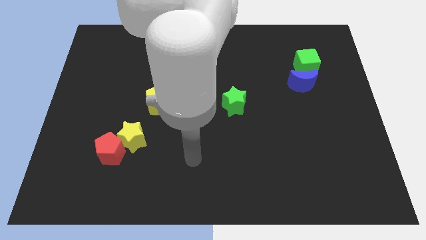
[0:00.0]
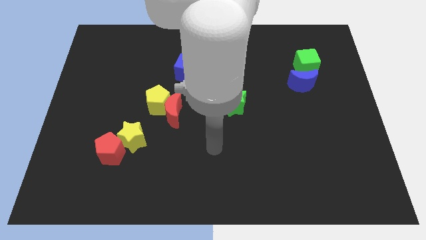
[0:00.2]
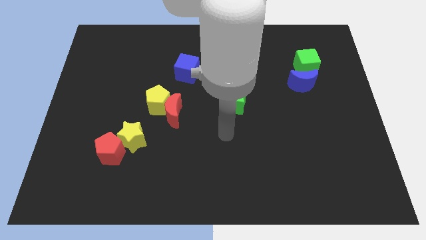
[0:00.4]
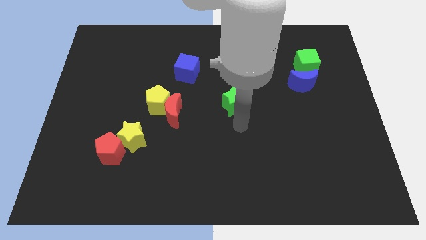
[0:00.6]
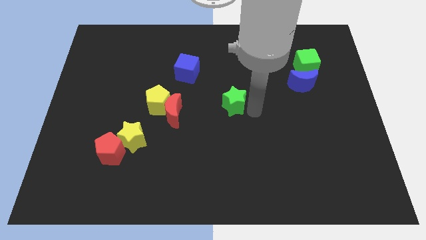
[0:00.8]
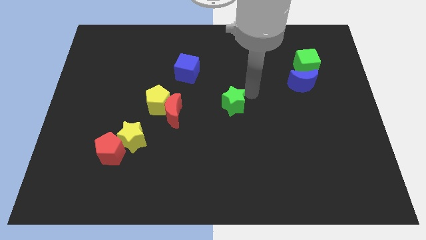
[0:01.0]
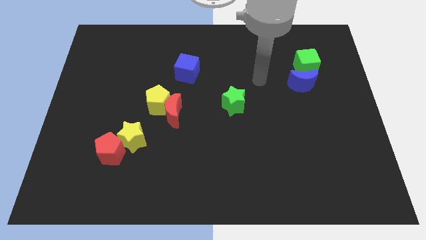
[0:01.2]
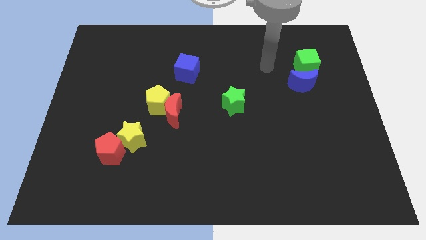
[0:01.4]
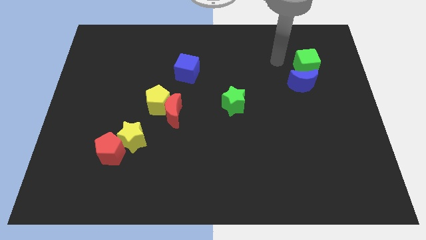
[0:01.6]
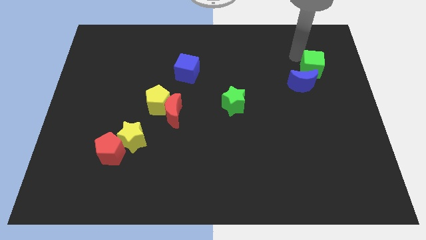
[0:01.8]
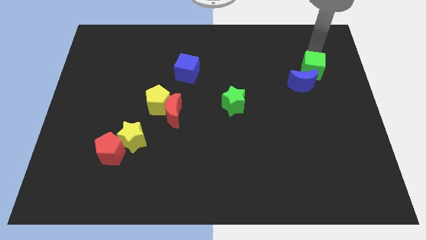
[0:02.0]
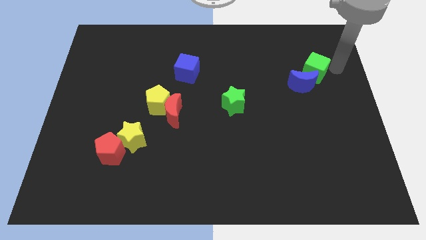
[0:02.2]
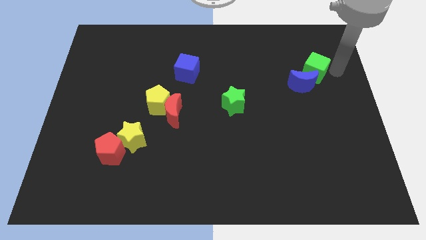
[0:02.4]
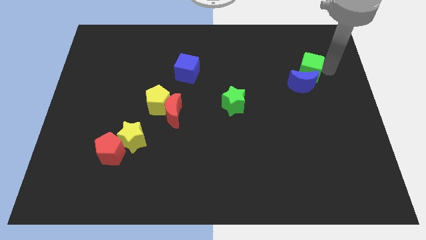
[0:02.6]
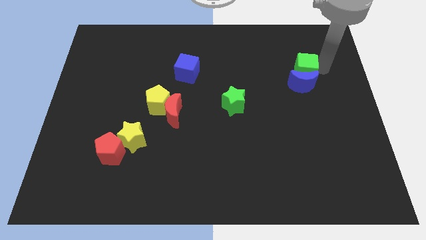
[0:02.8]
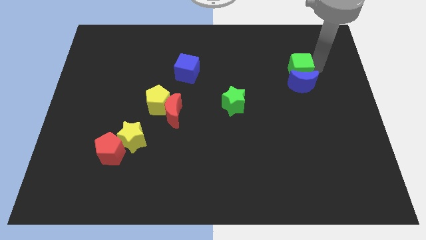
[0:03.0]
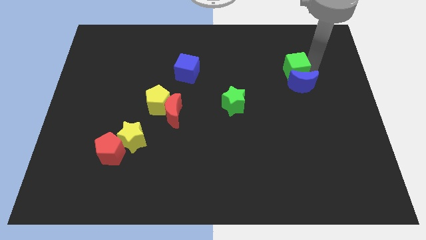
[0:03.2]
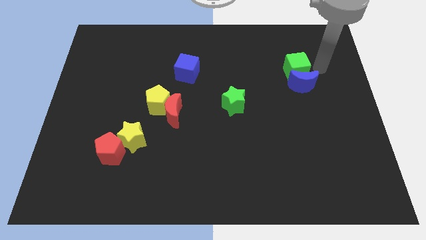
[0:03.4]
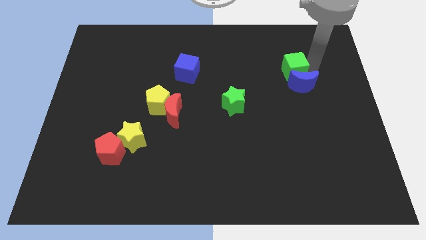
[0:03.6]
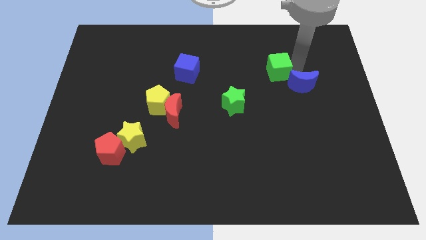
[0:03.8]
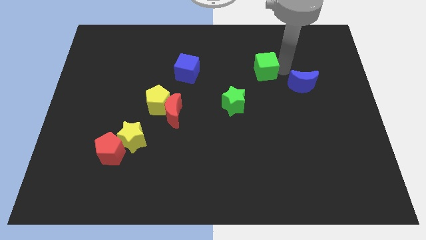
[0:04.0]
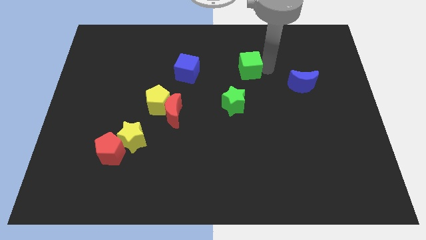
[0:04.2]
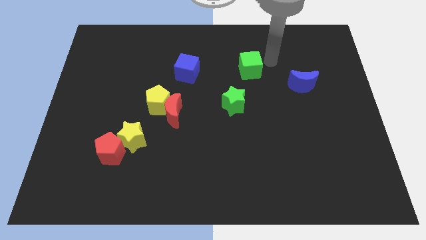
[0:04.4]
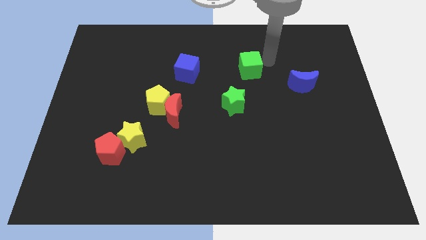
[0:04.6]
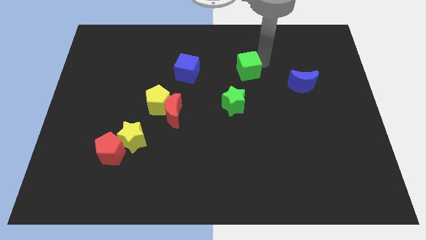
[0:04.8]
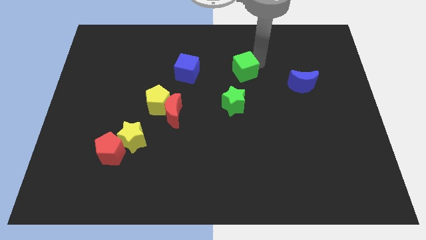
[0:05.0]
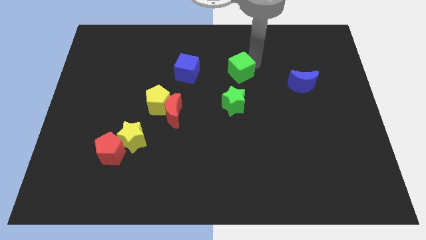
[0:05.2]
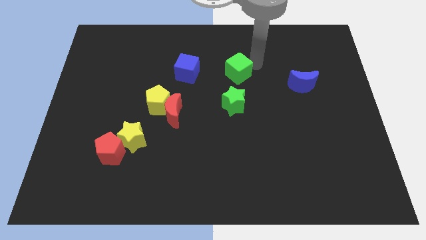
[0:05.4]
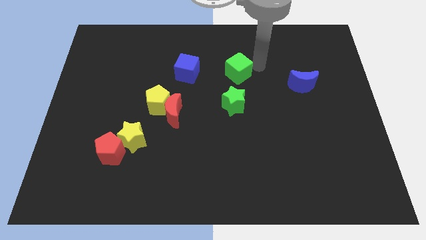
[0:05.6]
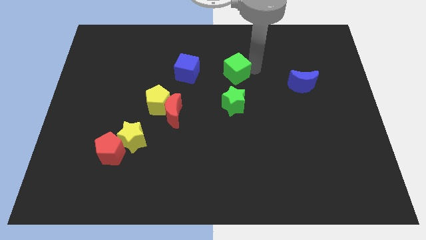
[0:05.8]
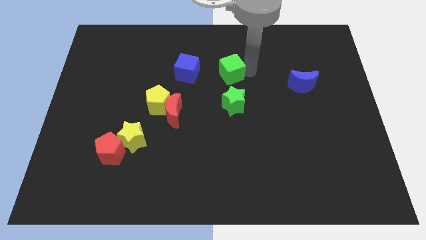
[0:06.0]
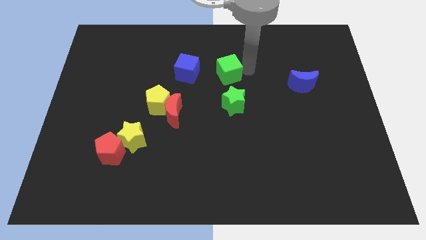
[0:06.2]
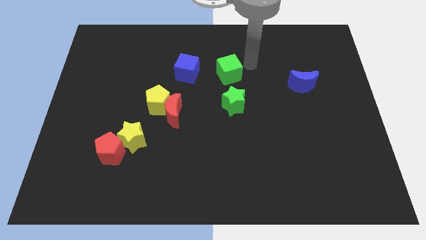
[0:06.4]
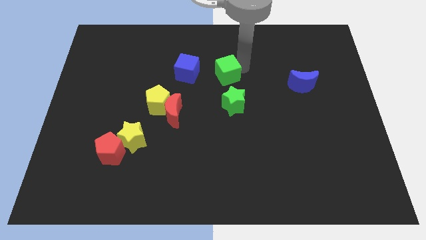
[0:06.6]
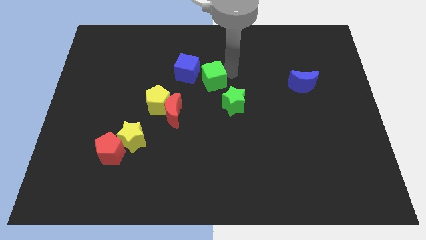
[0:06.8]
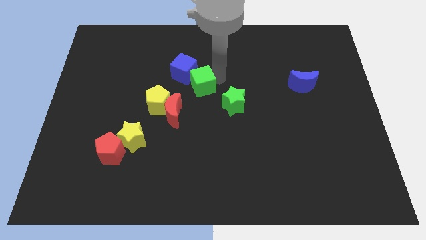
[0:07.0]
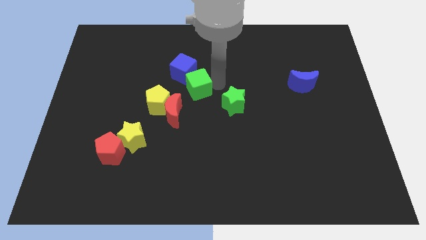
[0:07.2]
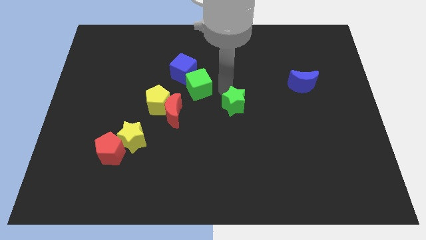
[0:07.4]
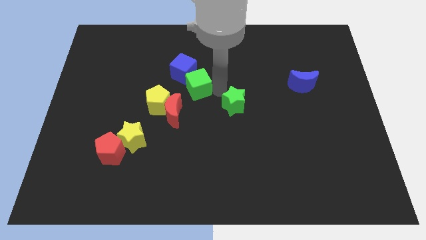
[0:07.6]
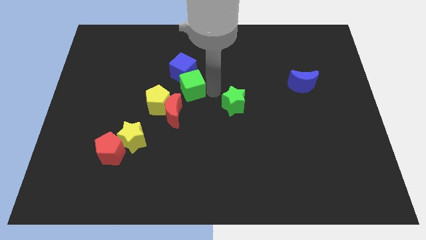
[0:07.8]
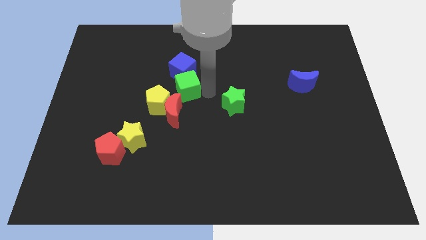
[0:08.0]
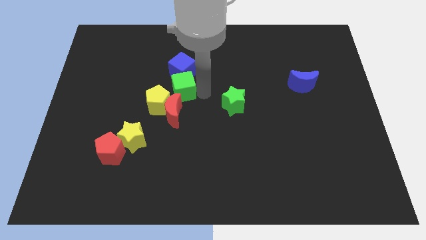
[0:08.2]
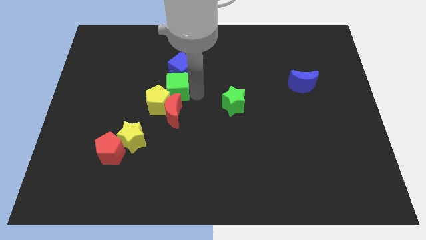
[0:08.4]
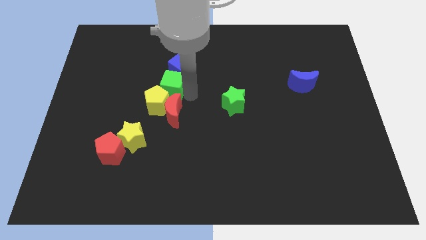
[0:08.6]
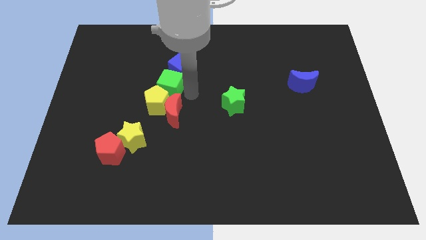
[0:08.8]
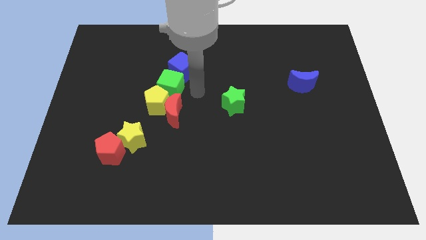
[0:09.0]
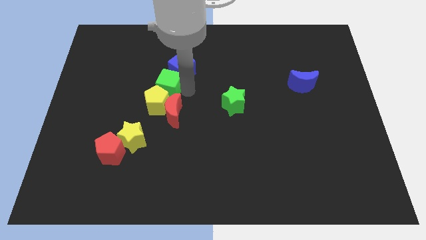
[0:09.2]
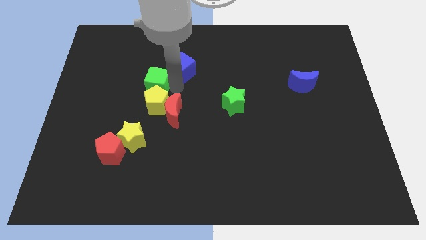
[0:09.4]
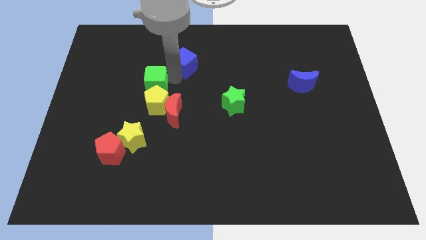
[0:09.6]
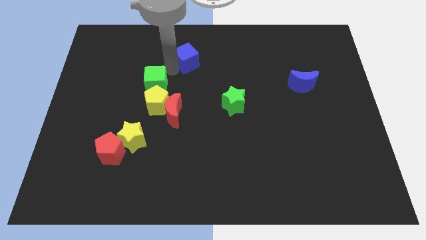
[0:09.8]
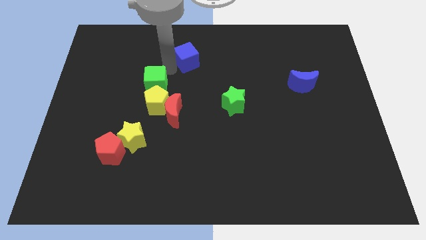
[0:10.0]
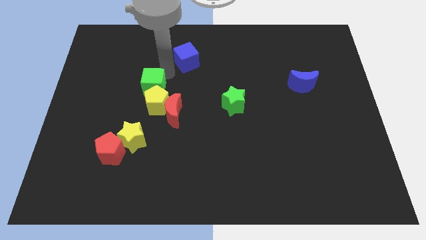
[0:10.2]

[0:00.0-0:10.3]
put the green cube to the top of the yellow star

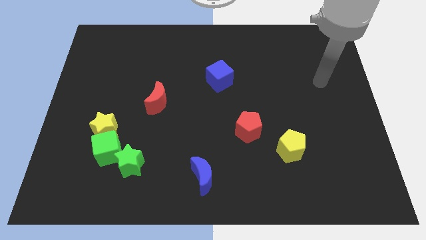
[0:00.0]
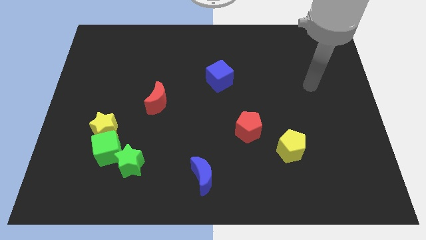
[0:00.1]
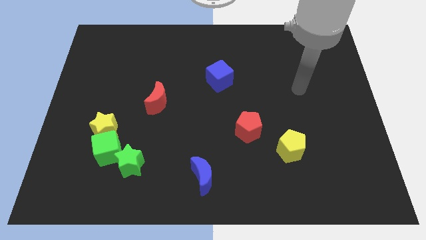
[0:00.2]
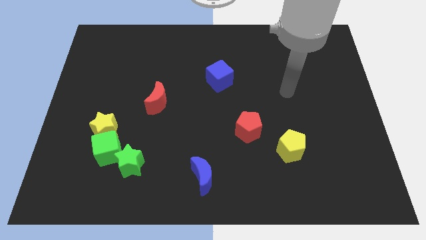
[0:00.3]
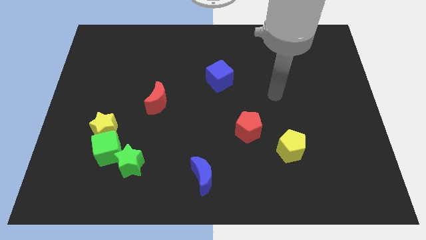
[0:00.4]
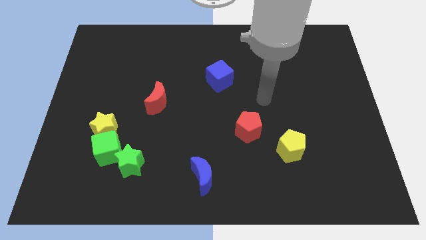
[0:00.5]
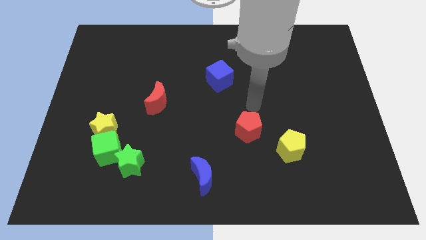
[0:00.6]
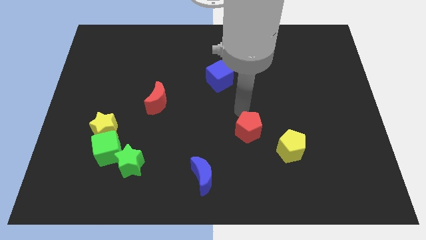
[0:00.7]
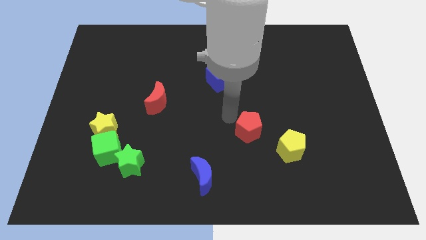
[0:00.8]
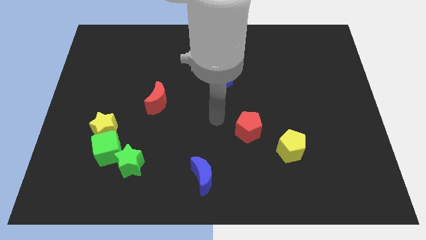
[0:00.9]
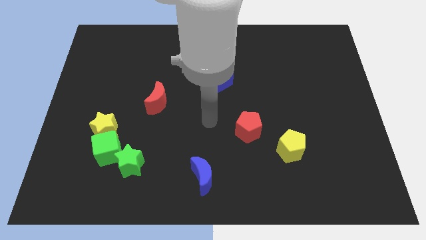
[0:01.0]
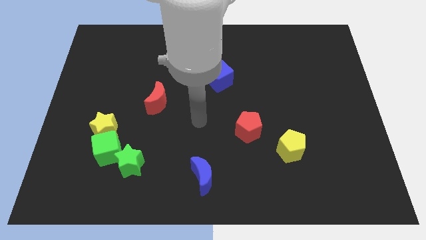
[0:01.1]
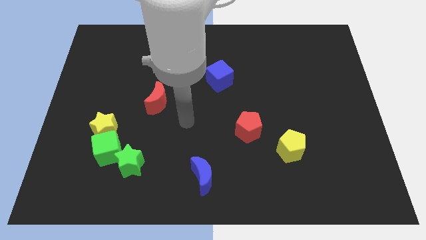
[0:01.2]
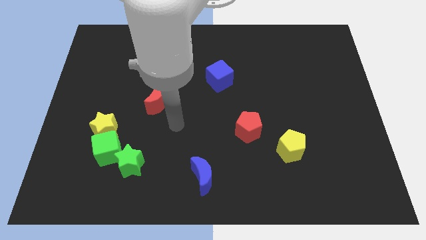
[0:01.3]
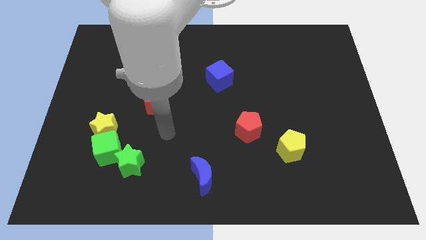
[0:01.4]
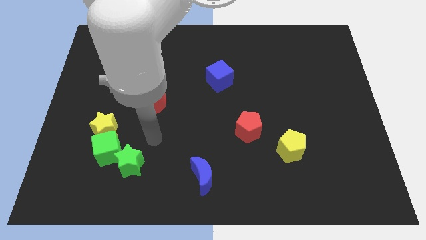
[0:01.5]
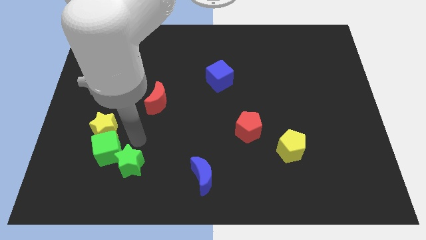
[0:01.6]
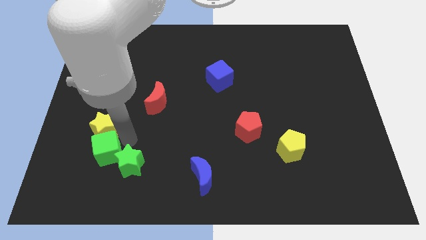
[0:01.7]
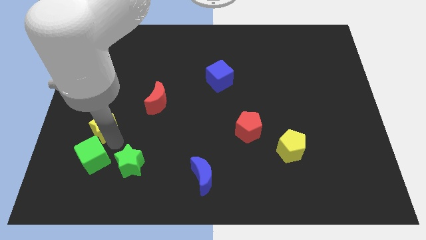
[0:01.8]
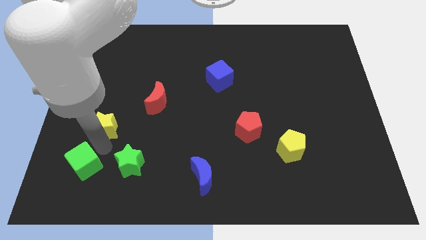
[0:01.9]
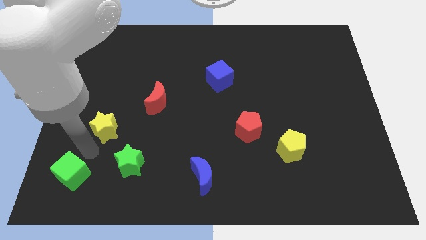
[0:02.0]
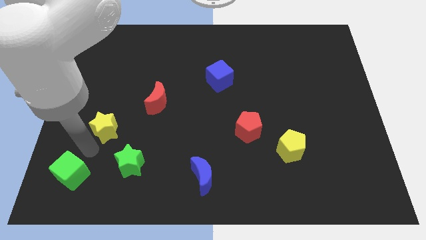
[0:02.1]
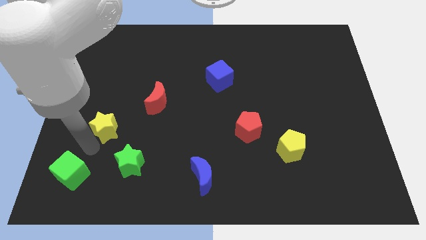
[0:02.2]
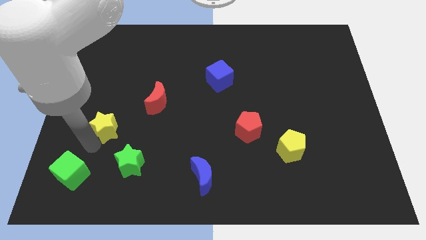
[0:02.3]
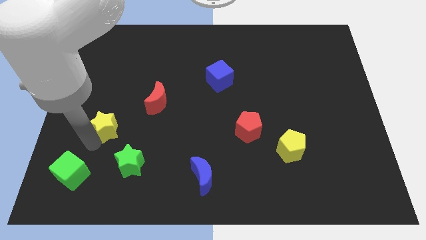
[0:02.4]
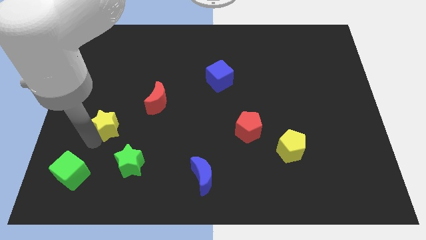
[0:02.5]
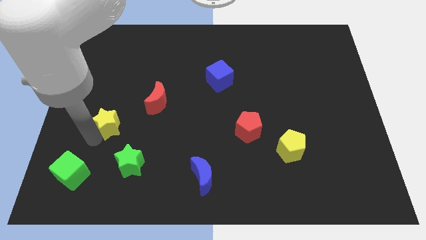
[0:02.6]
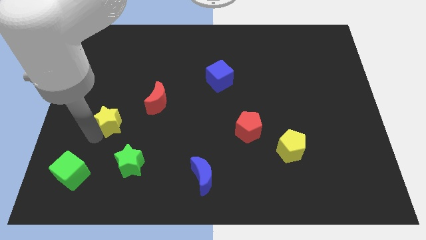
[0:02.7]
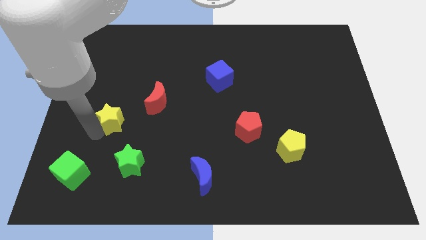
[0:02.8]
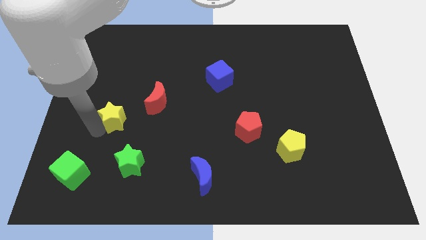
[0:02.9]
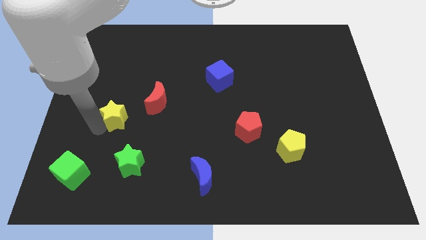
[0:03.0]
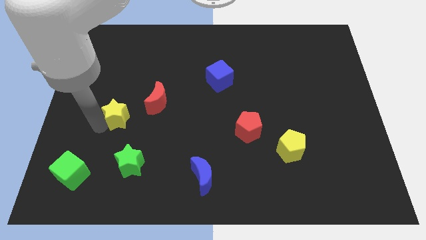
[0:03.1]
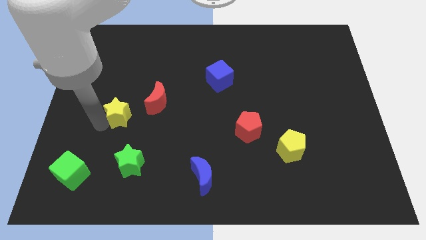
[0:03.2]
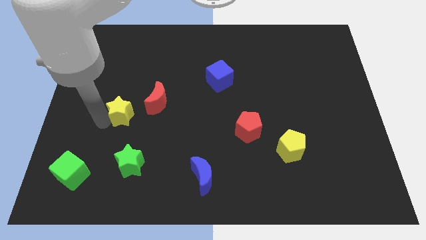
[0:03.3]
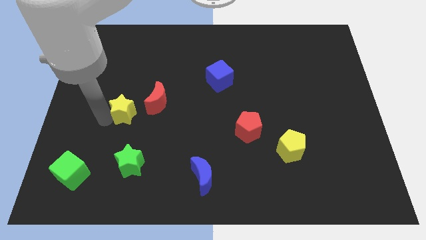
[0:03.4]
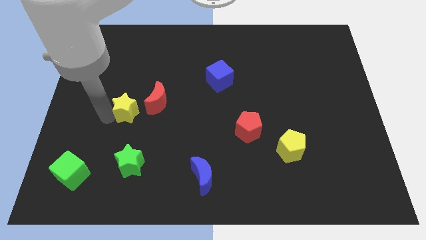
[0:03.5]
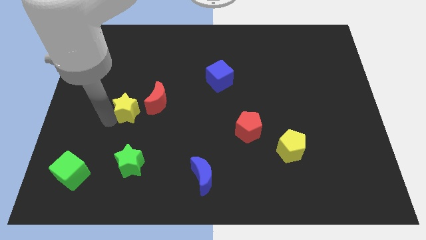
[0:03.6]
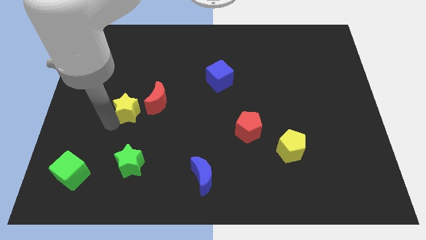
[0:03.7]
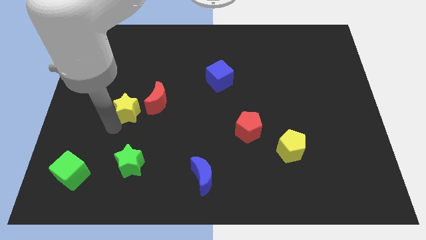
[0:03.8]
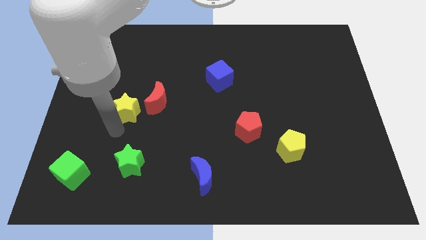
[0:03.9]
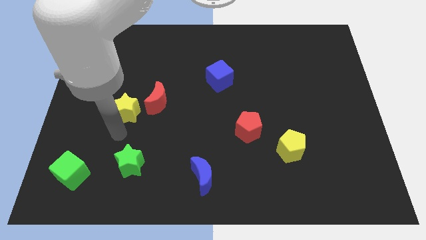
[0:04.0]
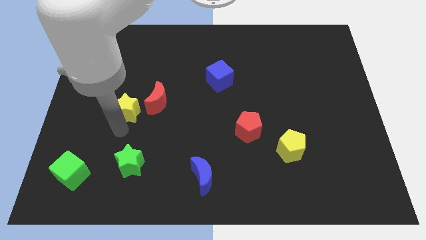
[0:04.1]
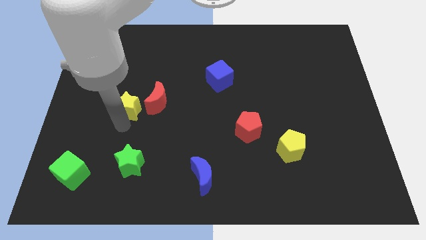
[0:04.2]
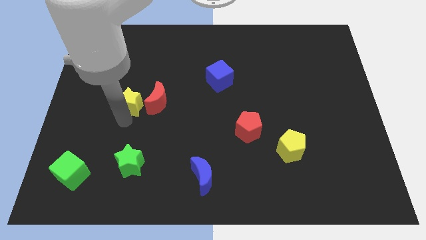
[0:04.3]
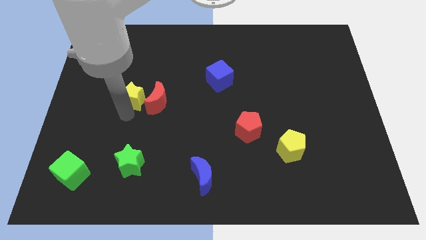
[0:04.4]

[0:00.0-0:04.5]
move the yellow star to the top left of the red moon
